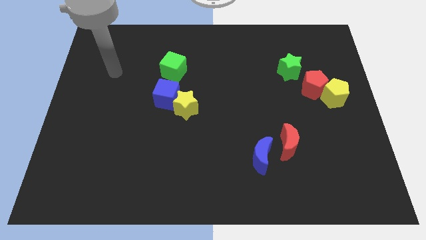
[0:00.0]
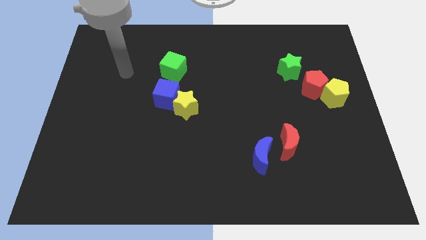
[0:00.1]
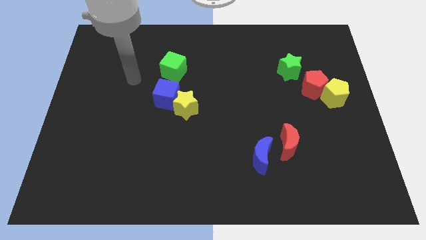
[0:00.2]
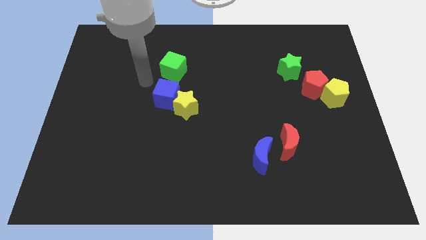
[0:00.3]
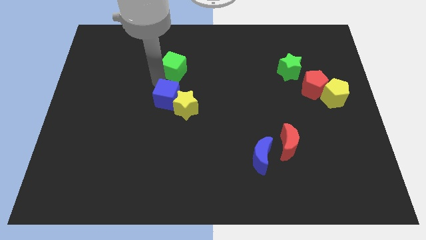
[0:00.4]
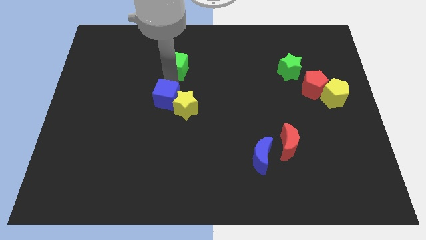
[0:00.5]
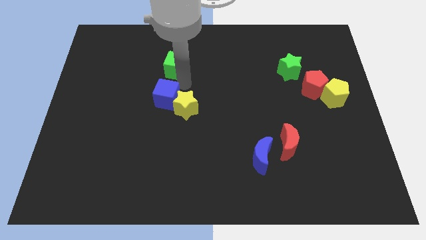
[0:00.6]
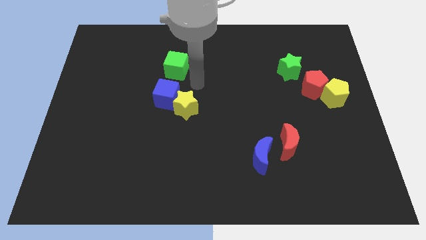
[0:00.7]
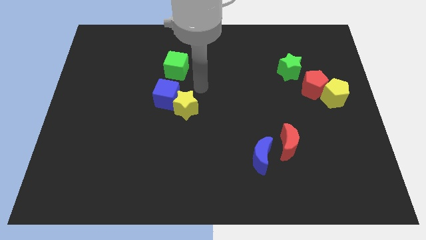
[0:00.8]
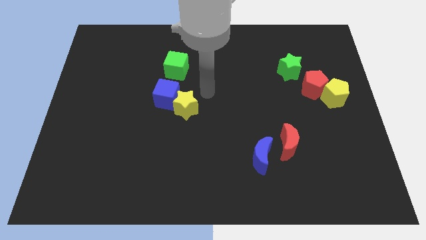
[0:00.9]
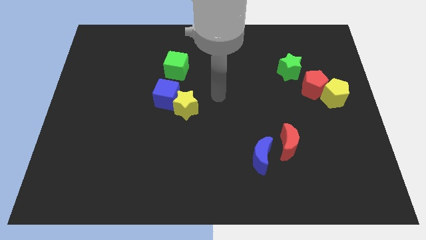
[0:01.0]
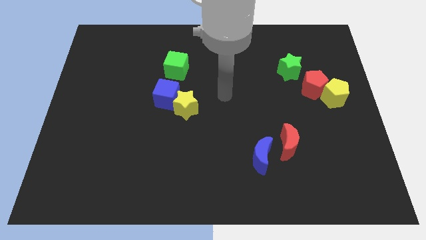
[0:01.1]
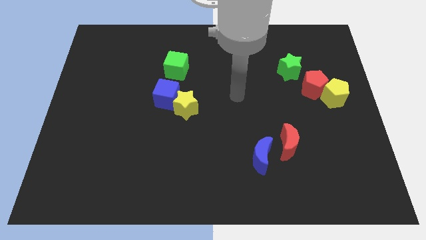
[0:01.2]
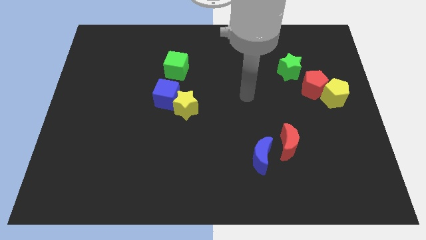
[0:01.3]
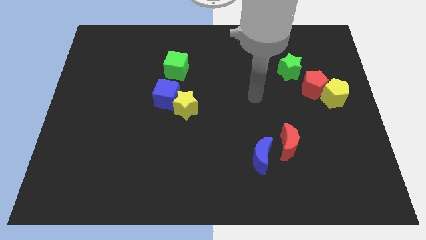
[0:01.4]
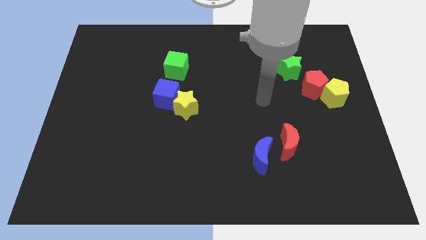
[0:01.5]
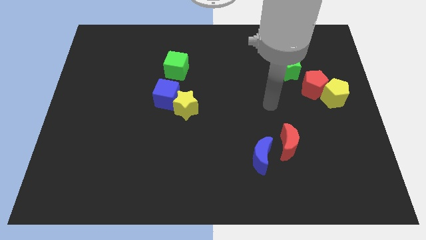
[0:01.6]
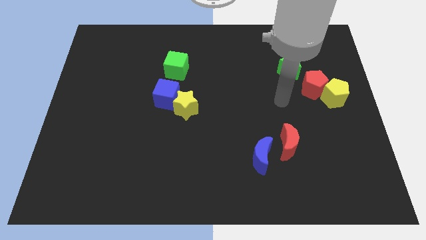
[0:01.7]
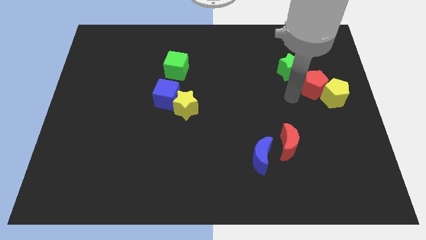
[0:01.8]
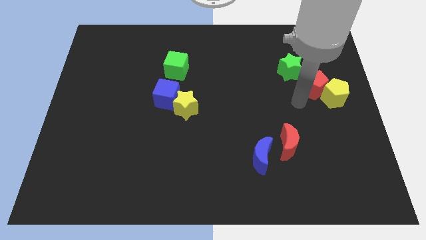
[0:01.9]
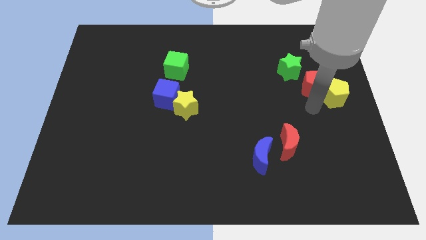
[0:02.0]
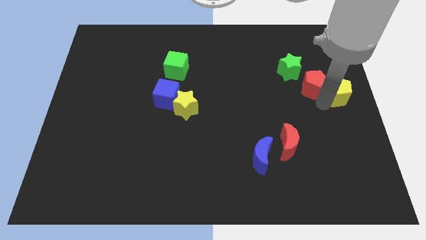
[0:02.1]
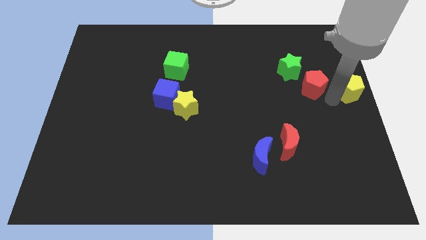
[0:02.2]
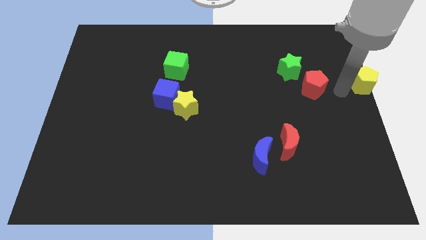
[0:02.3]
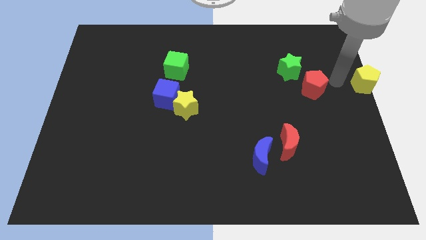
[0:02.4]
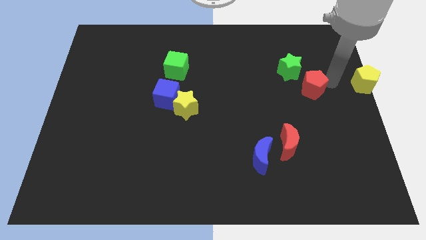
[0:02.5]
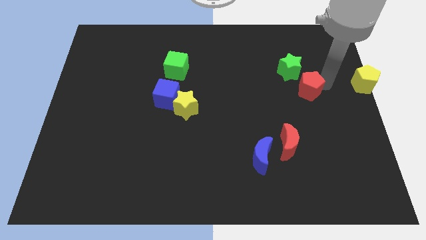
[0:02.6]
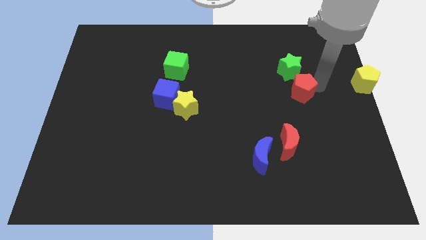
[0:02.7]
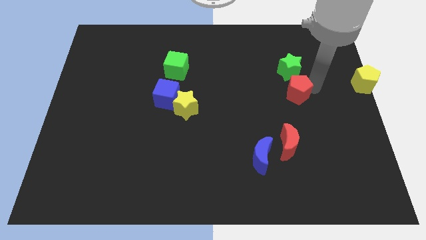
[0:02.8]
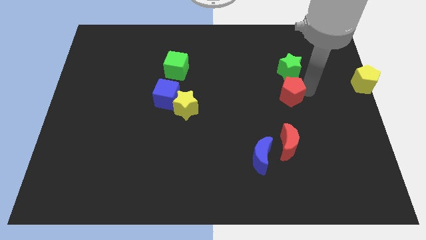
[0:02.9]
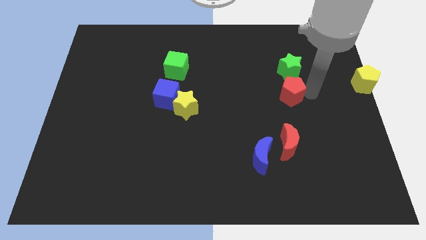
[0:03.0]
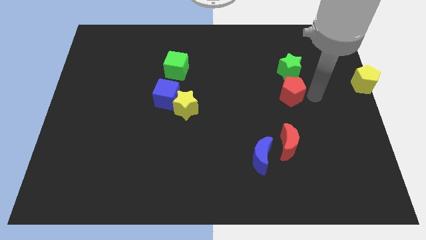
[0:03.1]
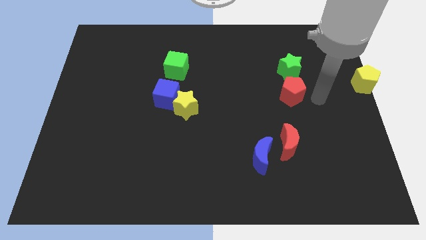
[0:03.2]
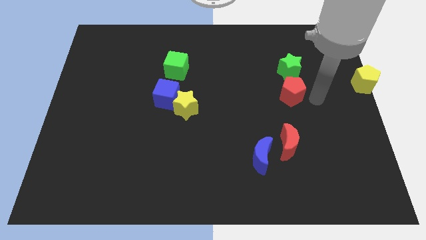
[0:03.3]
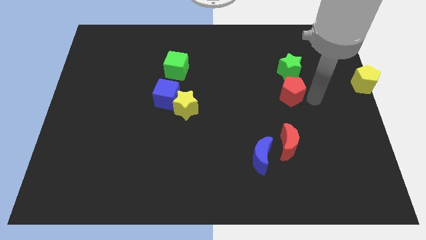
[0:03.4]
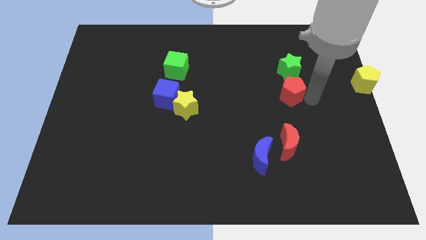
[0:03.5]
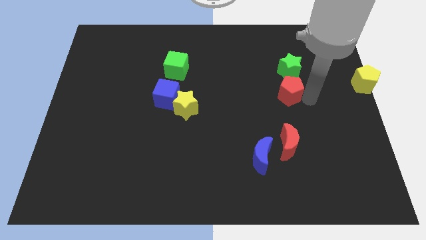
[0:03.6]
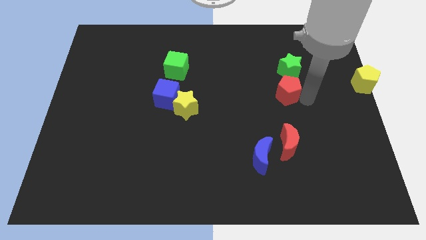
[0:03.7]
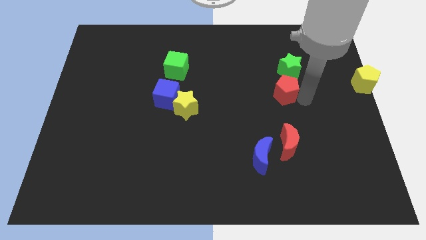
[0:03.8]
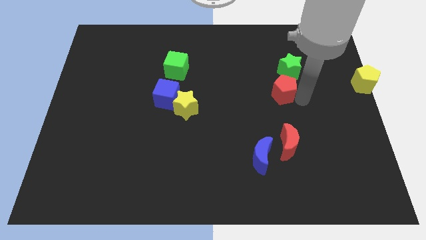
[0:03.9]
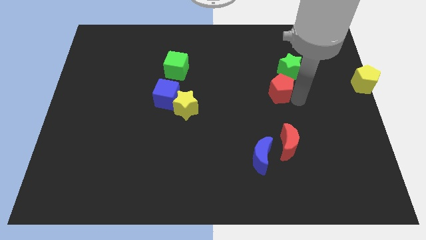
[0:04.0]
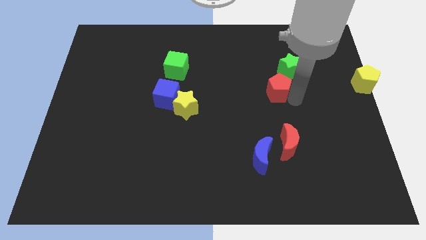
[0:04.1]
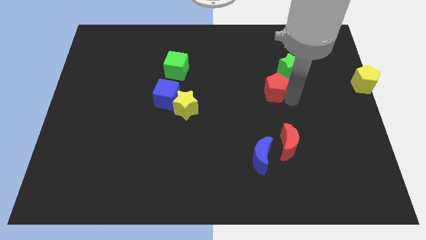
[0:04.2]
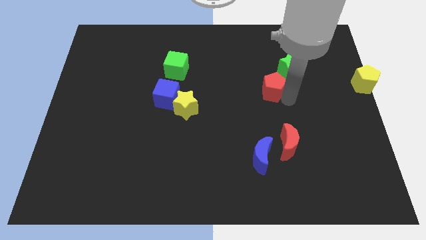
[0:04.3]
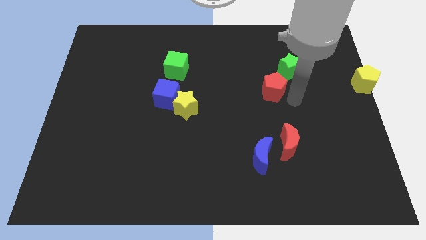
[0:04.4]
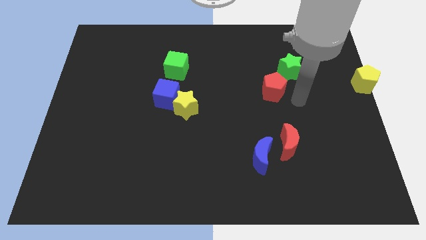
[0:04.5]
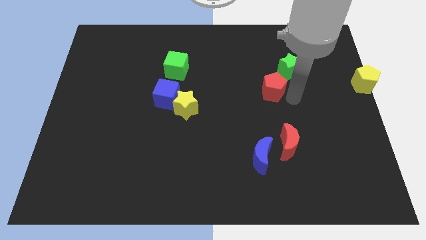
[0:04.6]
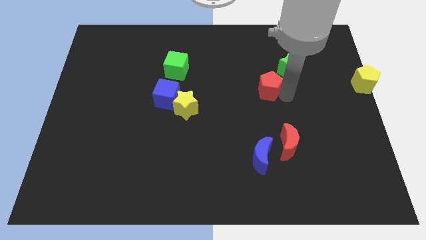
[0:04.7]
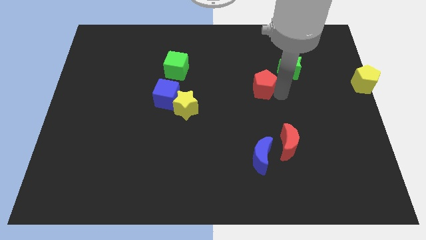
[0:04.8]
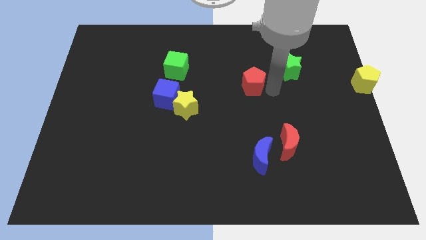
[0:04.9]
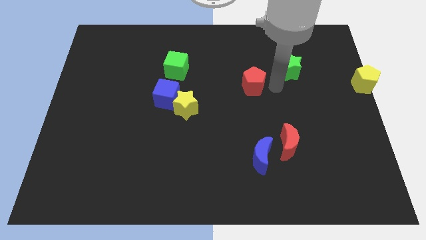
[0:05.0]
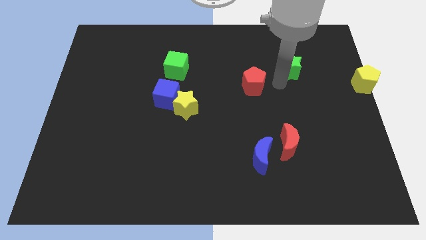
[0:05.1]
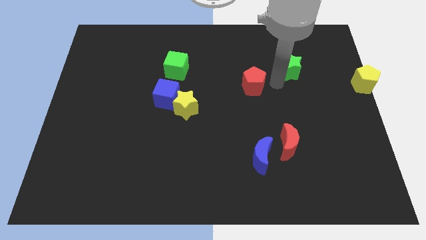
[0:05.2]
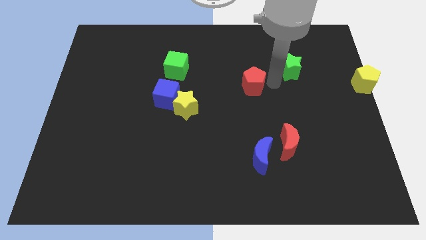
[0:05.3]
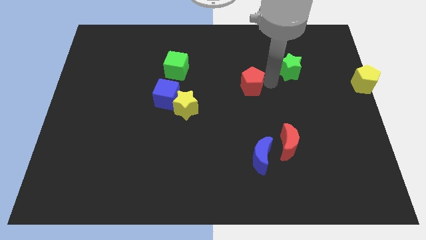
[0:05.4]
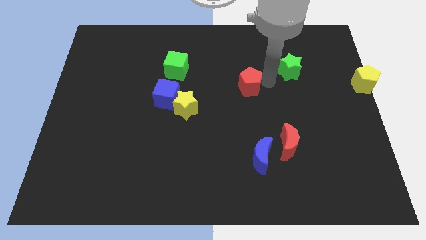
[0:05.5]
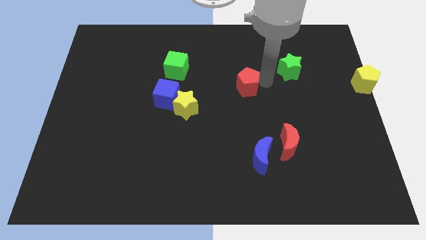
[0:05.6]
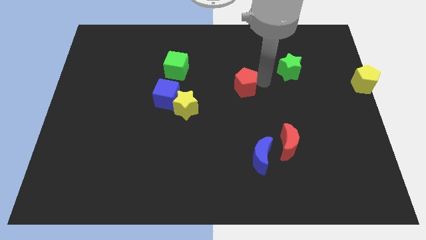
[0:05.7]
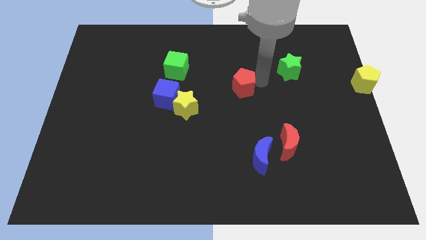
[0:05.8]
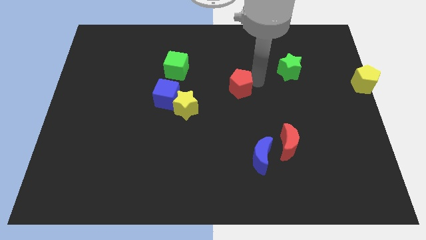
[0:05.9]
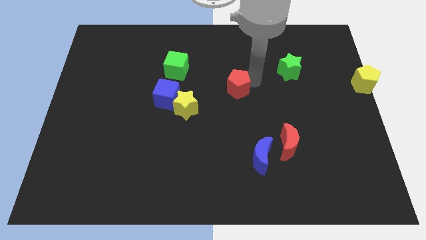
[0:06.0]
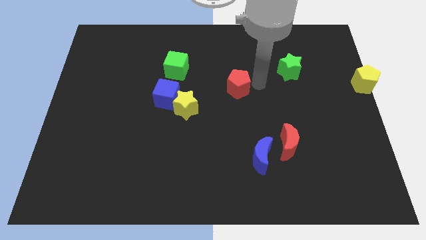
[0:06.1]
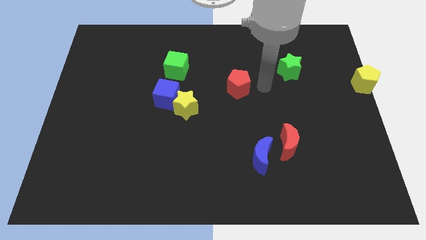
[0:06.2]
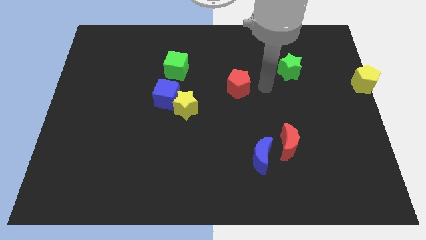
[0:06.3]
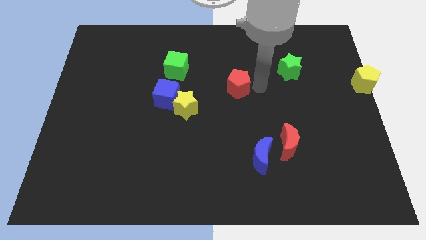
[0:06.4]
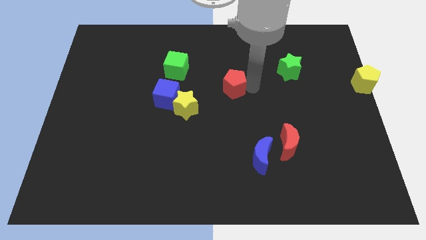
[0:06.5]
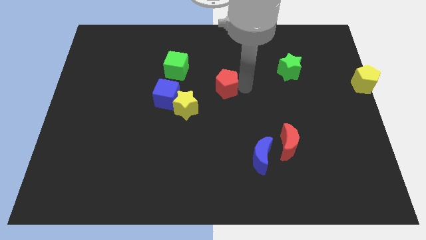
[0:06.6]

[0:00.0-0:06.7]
push the red pentagon left

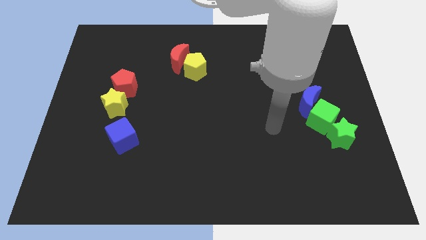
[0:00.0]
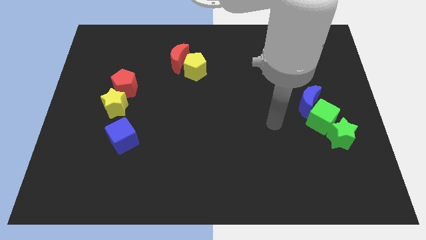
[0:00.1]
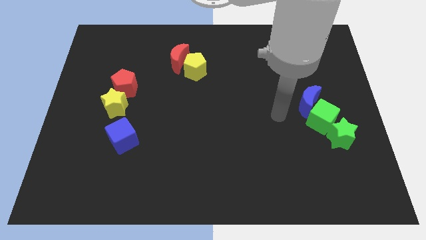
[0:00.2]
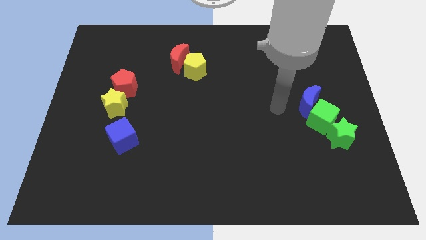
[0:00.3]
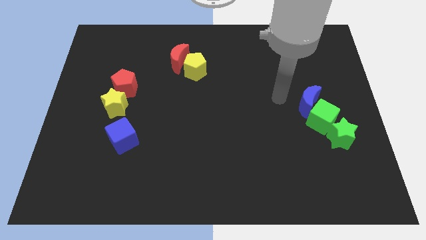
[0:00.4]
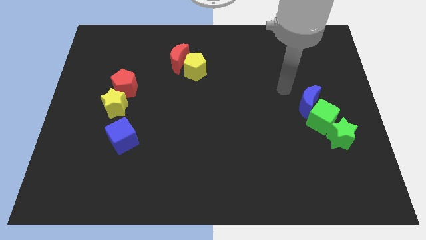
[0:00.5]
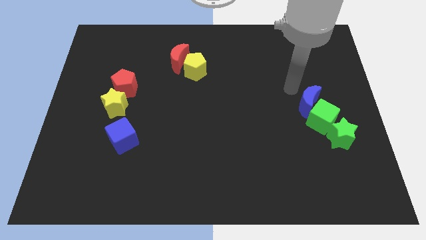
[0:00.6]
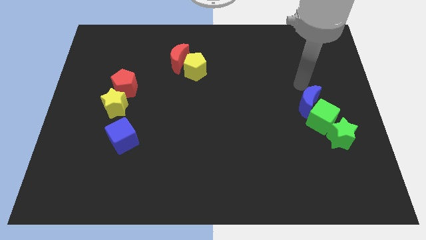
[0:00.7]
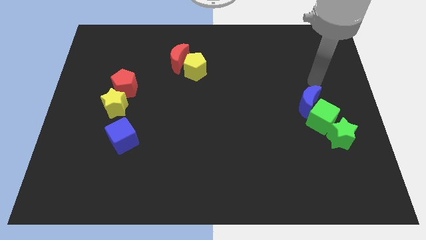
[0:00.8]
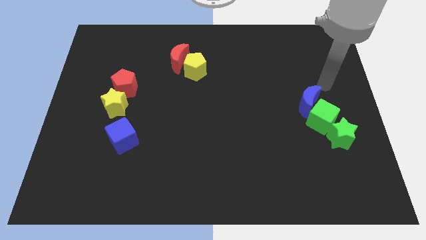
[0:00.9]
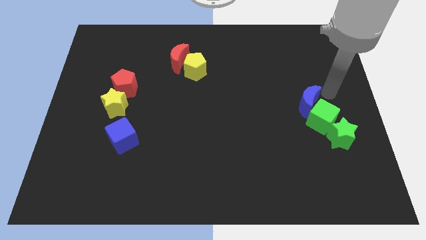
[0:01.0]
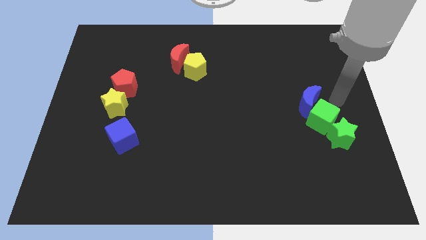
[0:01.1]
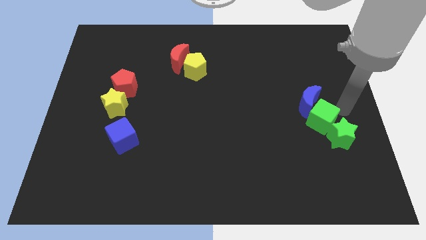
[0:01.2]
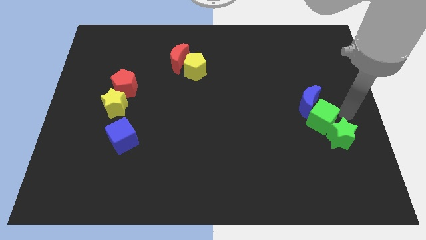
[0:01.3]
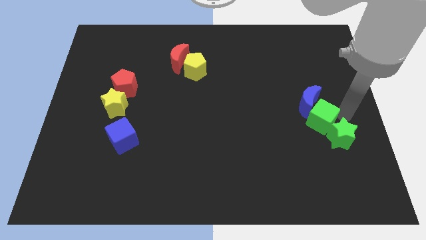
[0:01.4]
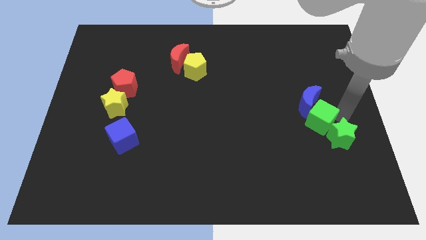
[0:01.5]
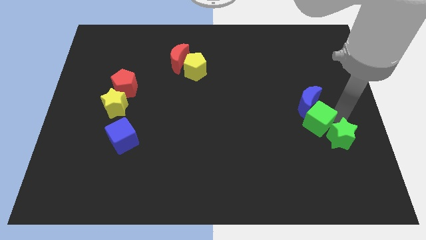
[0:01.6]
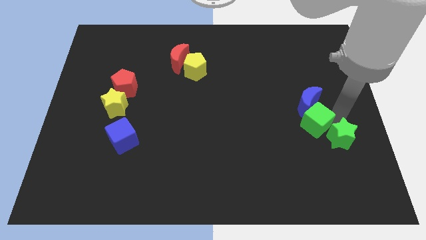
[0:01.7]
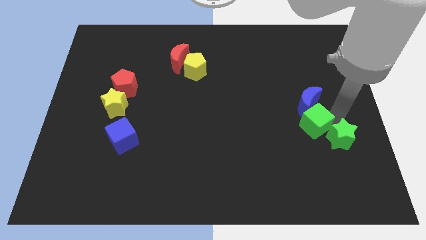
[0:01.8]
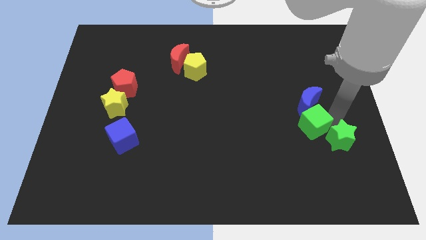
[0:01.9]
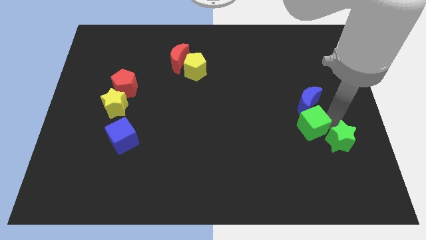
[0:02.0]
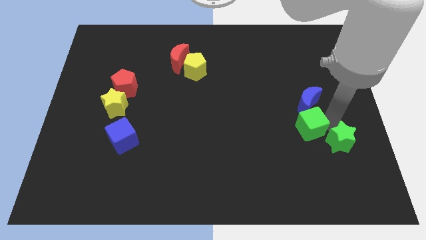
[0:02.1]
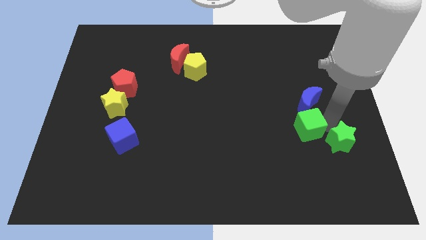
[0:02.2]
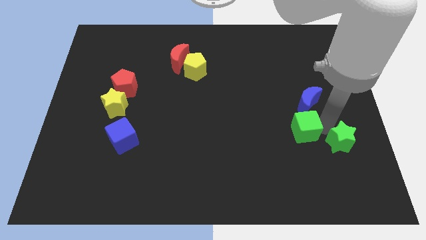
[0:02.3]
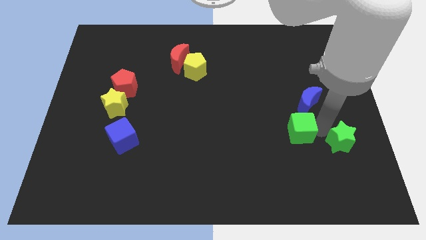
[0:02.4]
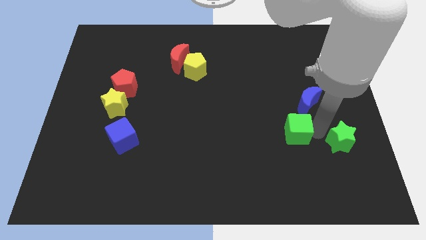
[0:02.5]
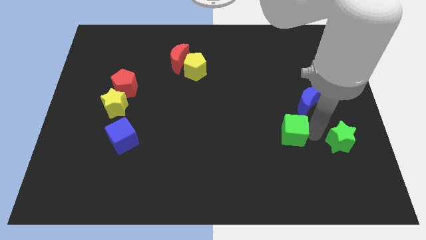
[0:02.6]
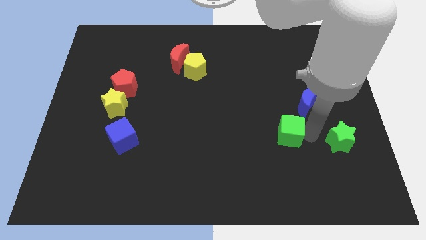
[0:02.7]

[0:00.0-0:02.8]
slightly push the green cube to the left
